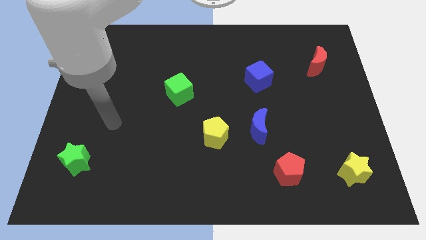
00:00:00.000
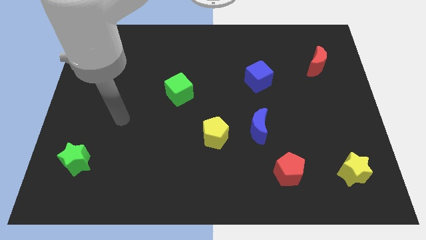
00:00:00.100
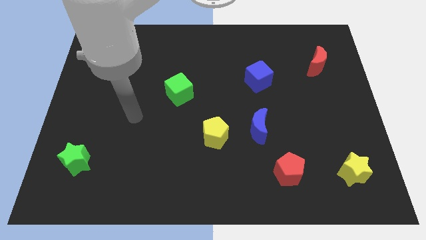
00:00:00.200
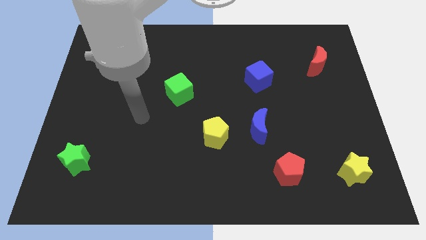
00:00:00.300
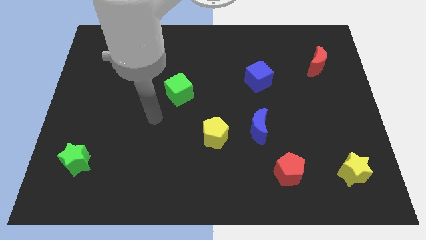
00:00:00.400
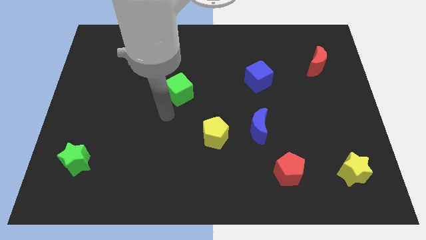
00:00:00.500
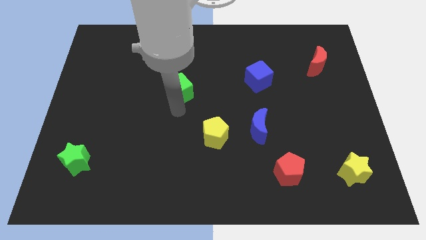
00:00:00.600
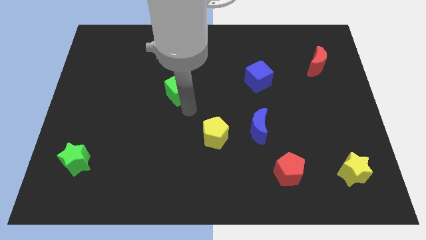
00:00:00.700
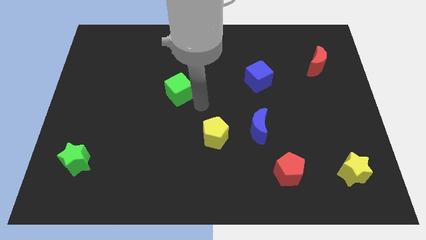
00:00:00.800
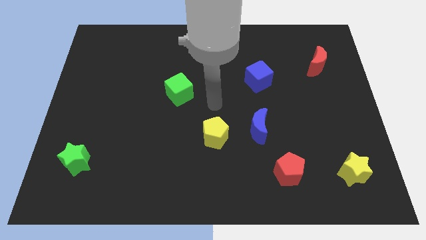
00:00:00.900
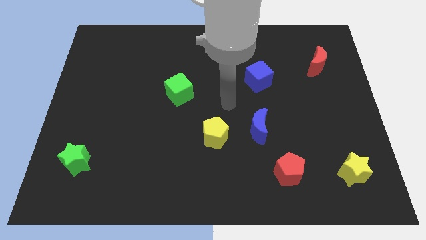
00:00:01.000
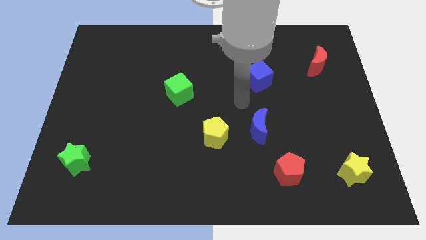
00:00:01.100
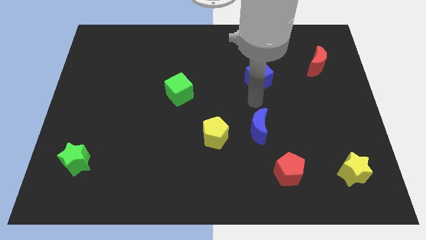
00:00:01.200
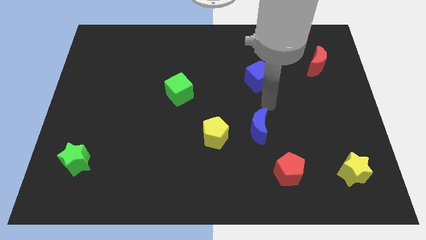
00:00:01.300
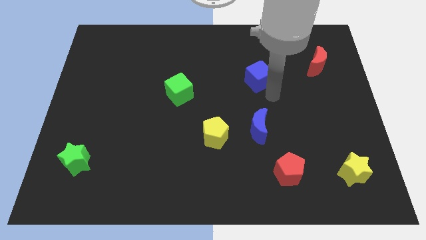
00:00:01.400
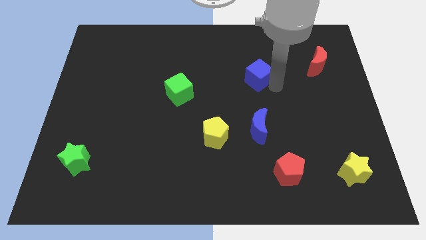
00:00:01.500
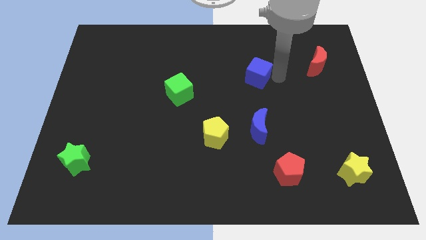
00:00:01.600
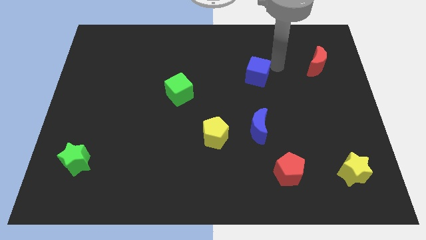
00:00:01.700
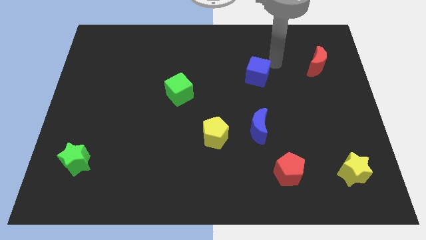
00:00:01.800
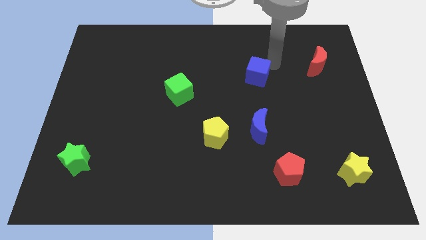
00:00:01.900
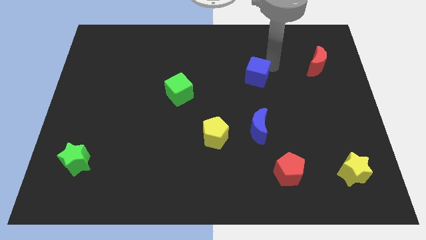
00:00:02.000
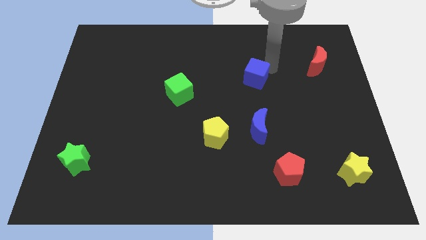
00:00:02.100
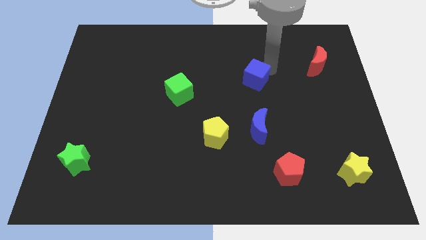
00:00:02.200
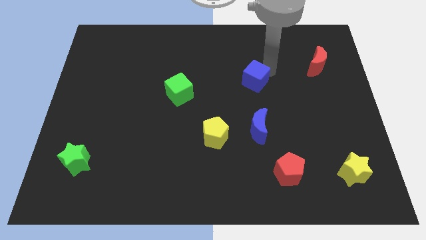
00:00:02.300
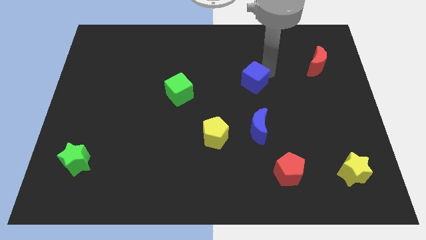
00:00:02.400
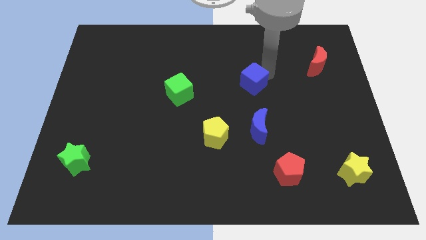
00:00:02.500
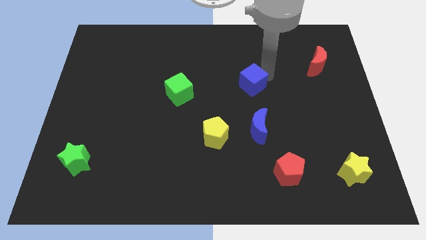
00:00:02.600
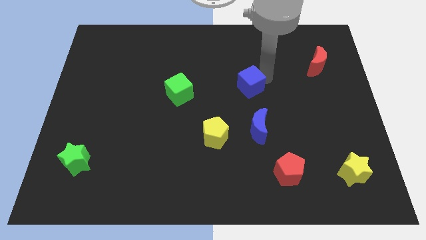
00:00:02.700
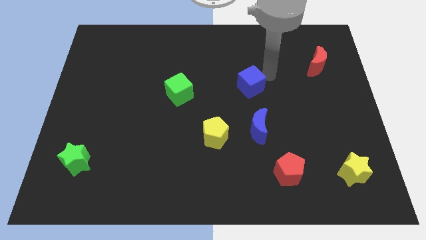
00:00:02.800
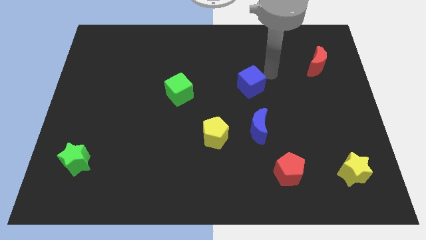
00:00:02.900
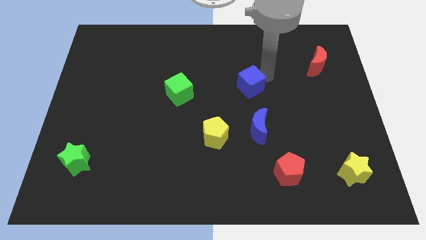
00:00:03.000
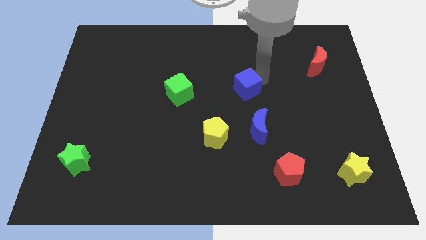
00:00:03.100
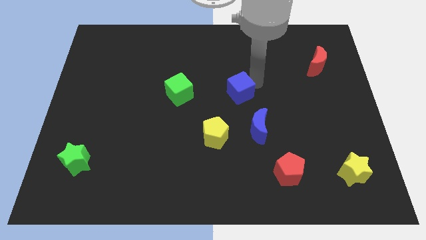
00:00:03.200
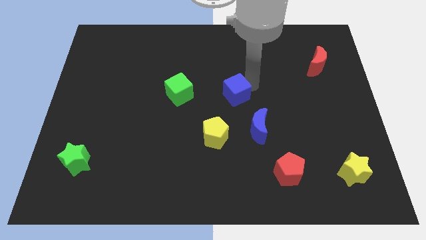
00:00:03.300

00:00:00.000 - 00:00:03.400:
slightly slide the blue cube downwards and to the left diagonally

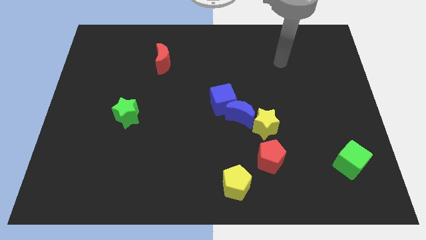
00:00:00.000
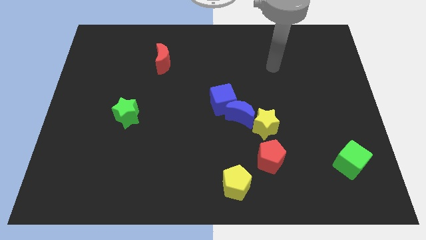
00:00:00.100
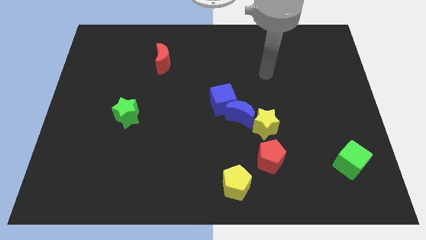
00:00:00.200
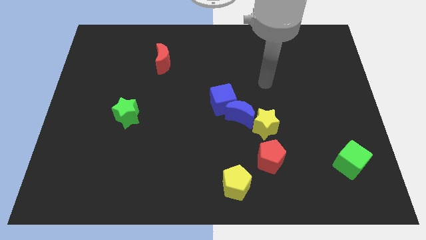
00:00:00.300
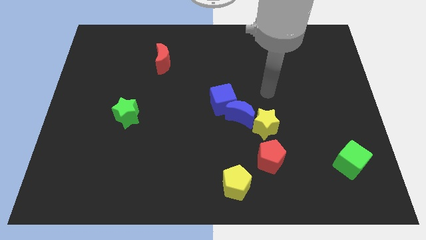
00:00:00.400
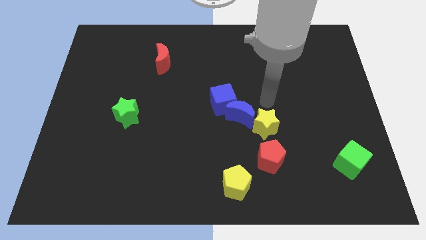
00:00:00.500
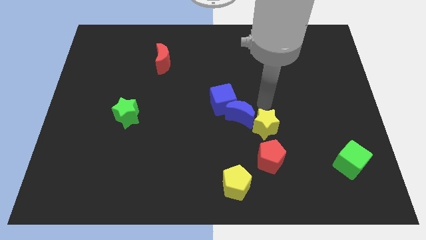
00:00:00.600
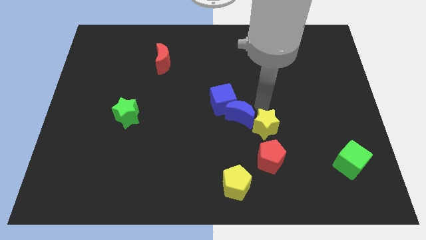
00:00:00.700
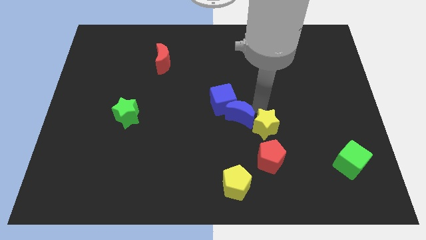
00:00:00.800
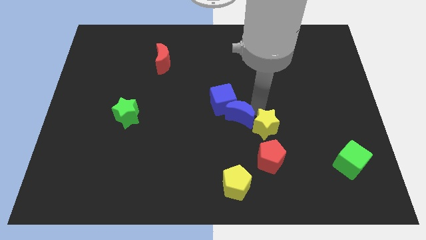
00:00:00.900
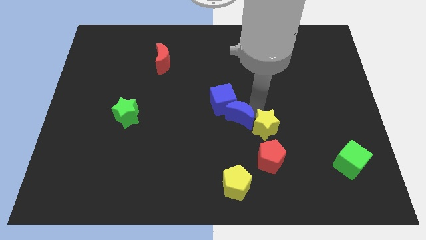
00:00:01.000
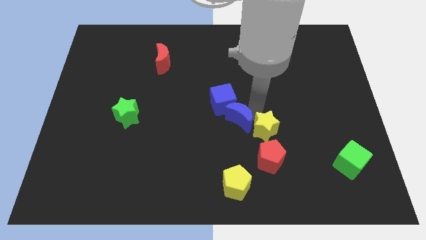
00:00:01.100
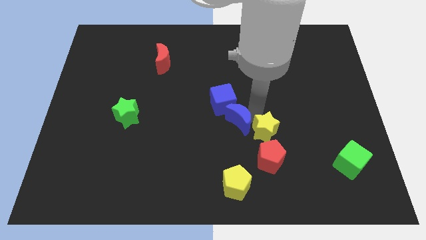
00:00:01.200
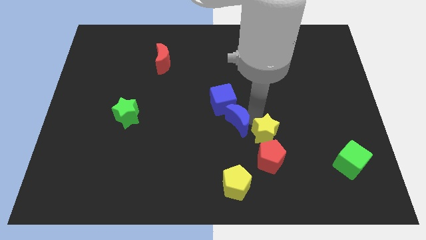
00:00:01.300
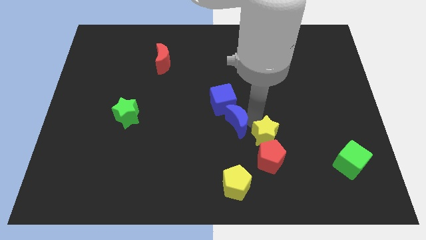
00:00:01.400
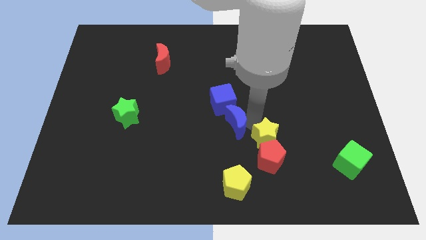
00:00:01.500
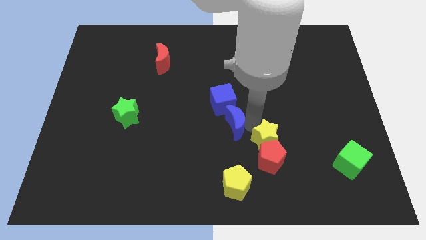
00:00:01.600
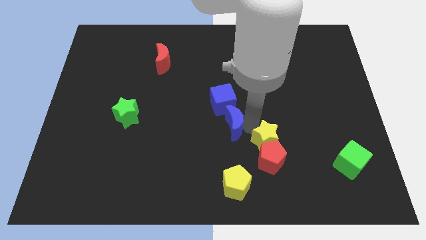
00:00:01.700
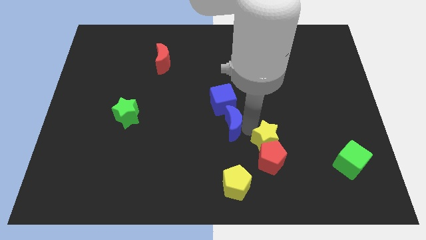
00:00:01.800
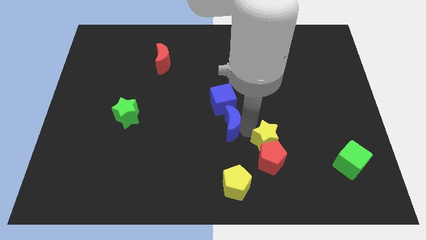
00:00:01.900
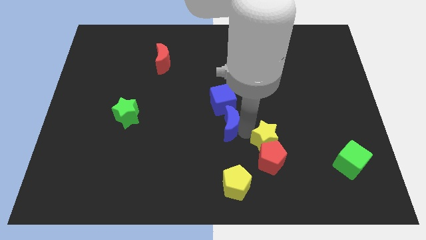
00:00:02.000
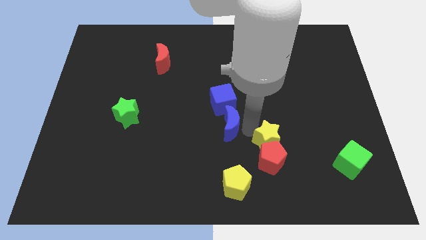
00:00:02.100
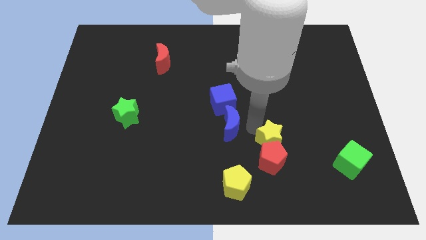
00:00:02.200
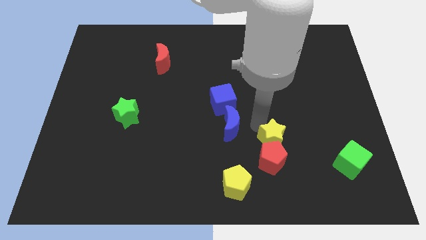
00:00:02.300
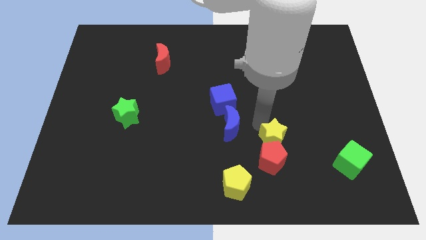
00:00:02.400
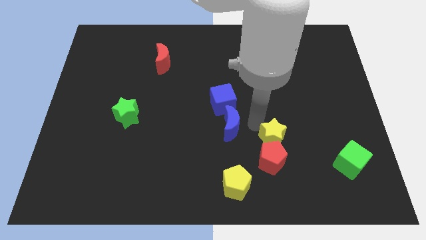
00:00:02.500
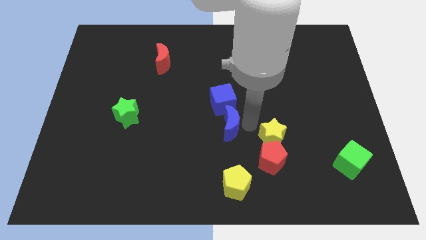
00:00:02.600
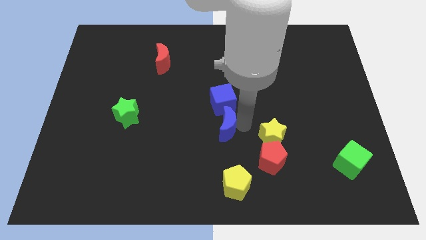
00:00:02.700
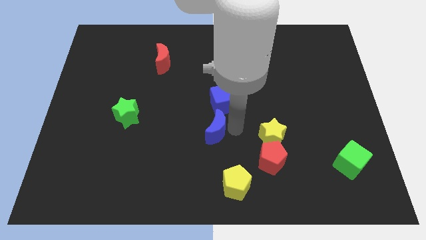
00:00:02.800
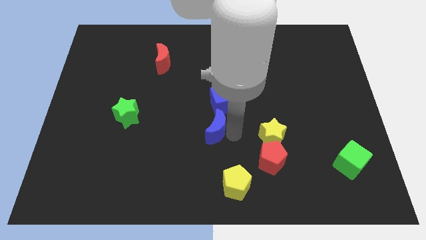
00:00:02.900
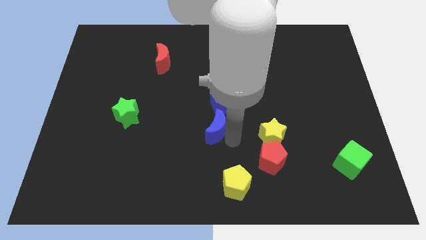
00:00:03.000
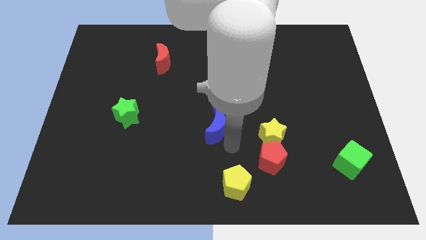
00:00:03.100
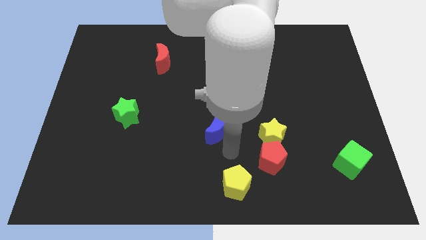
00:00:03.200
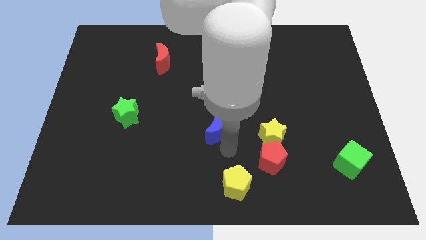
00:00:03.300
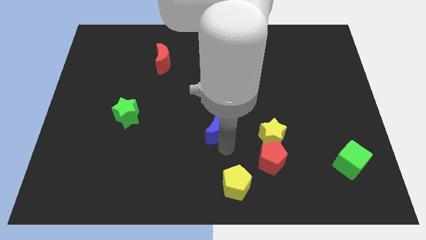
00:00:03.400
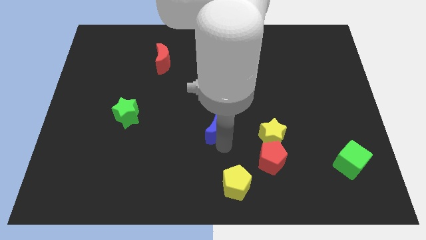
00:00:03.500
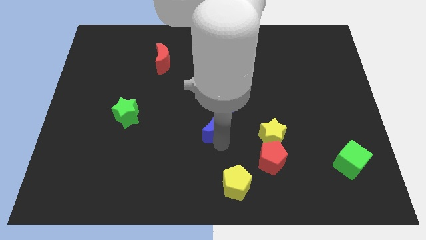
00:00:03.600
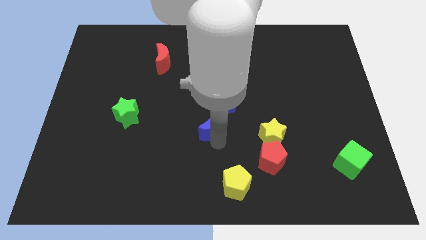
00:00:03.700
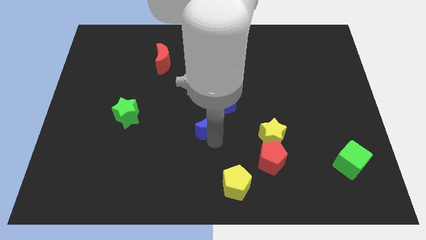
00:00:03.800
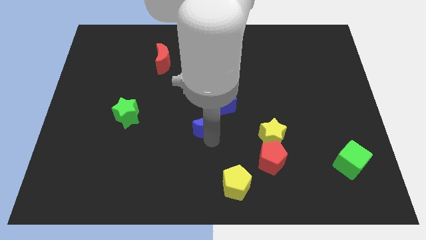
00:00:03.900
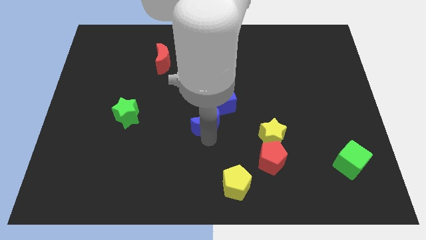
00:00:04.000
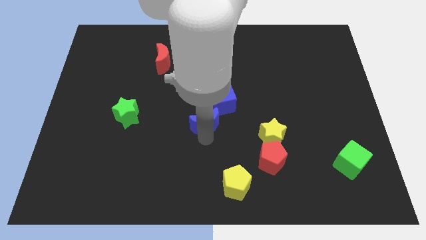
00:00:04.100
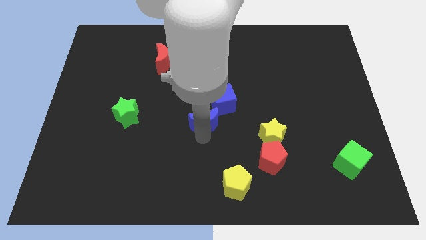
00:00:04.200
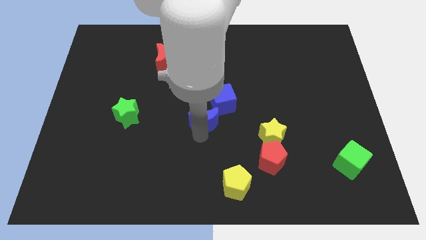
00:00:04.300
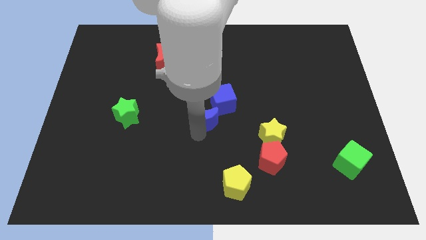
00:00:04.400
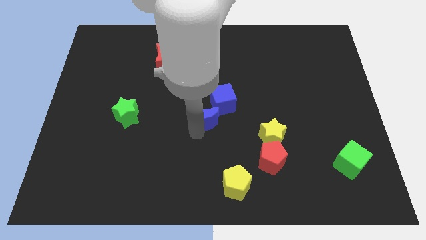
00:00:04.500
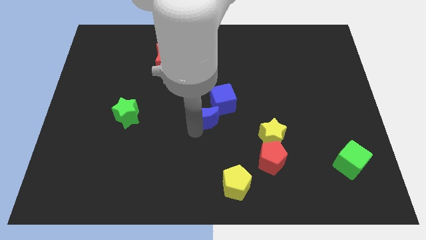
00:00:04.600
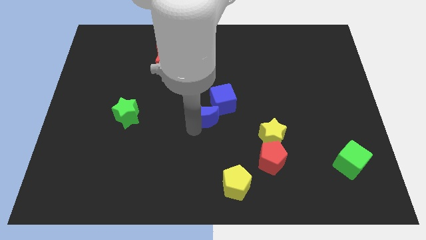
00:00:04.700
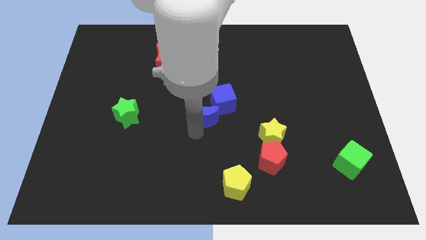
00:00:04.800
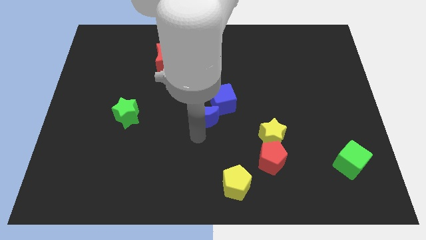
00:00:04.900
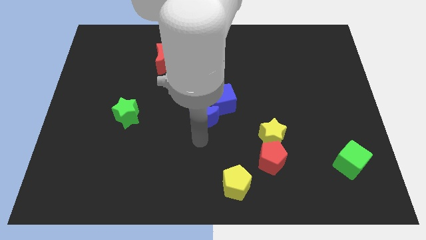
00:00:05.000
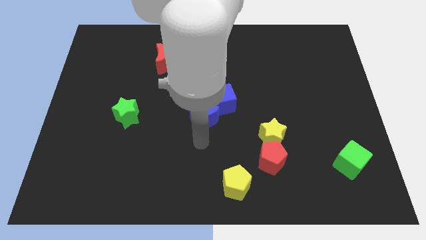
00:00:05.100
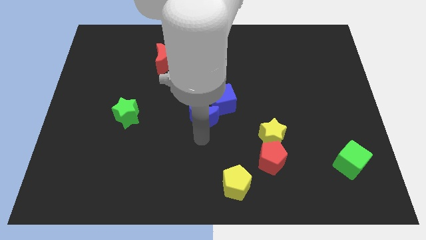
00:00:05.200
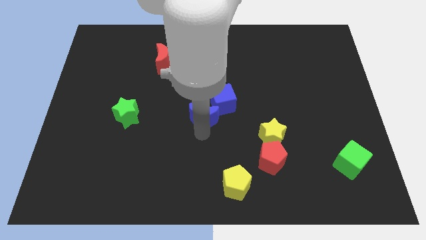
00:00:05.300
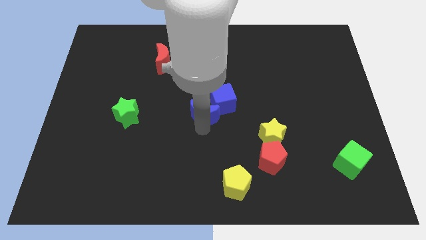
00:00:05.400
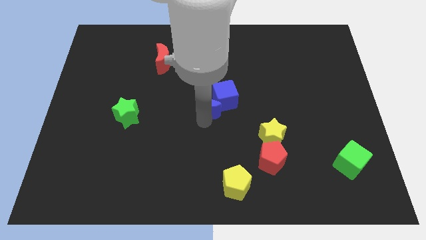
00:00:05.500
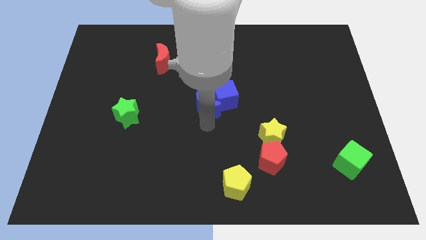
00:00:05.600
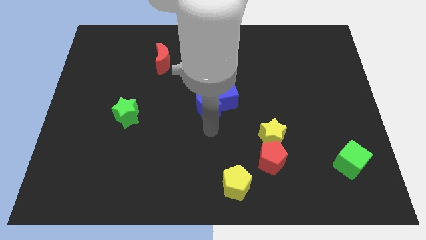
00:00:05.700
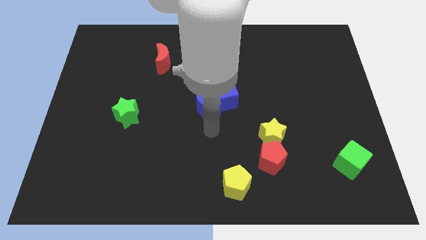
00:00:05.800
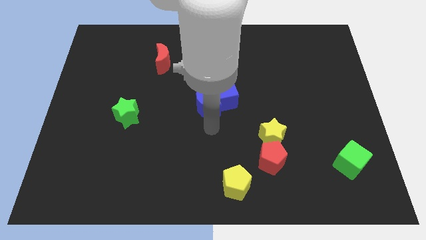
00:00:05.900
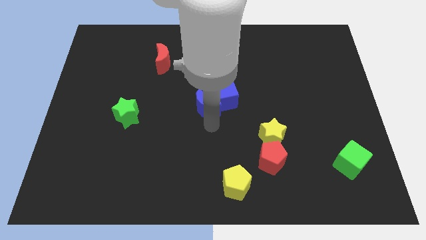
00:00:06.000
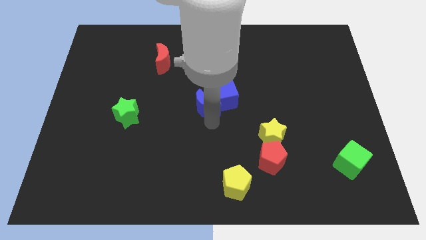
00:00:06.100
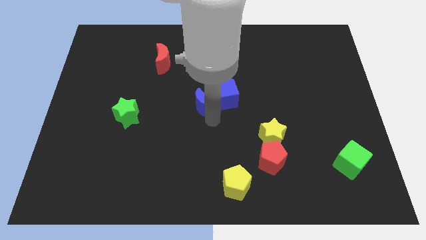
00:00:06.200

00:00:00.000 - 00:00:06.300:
move the blue moon upwards and then left a bit
